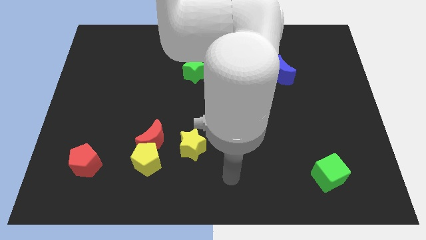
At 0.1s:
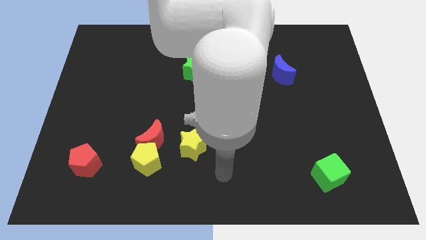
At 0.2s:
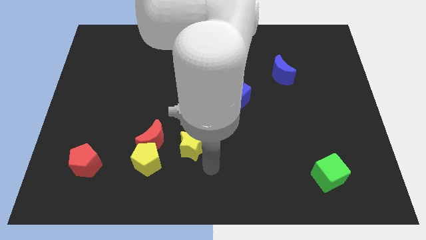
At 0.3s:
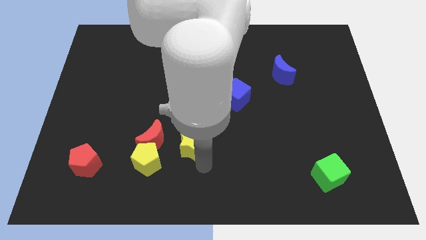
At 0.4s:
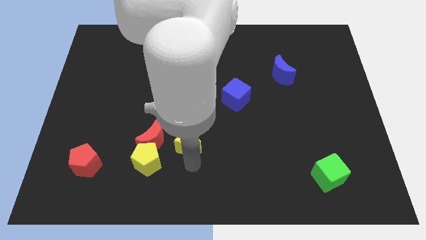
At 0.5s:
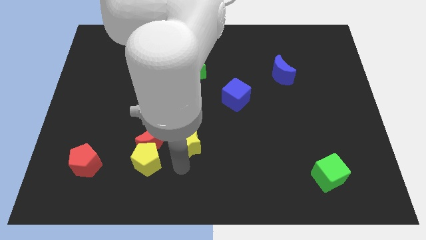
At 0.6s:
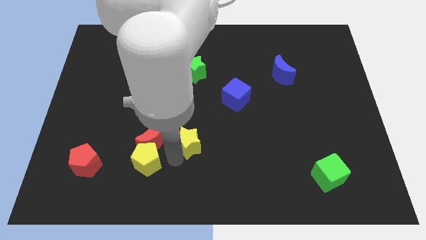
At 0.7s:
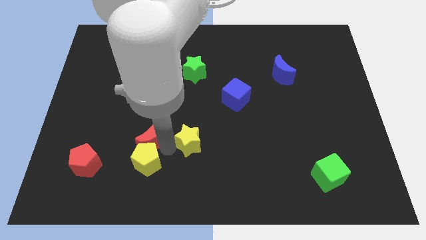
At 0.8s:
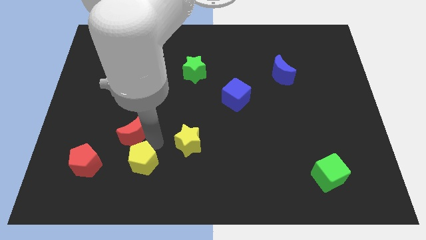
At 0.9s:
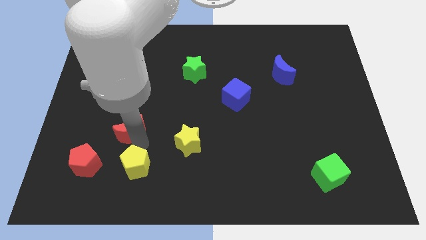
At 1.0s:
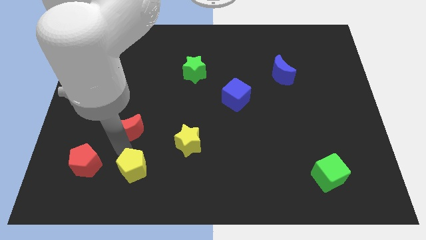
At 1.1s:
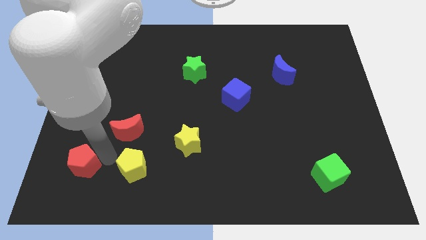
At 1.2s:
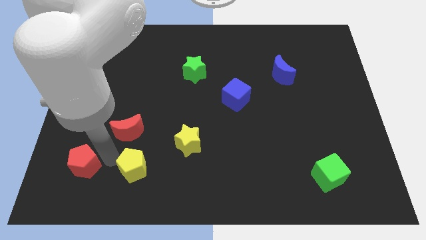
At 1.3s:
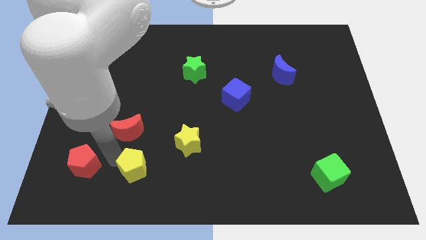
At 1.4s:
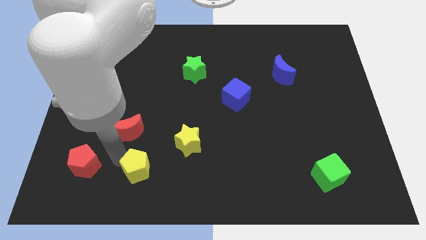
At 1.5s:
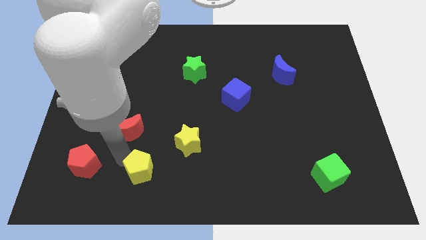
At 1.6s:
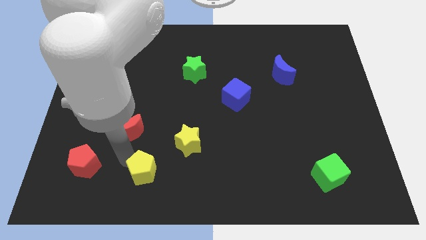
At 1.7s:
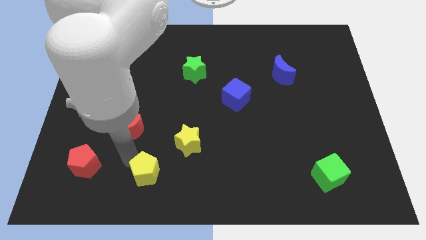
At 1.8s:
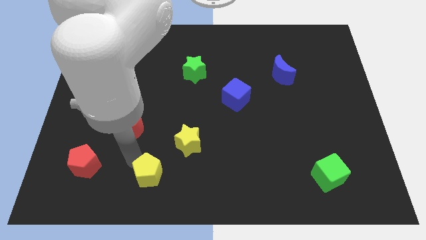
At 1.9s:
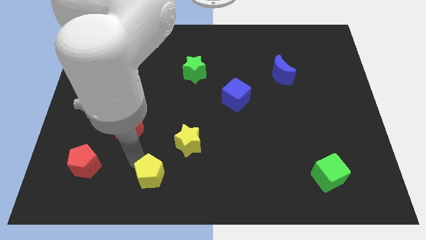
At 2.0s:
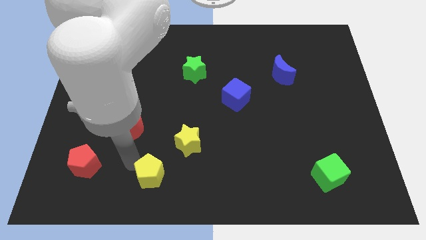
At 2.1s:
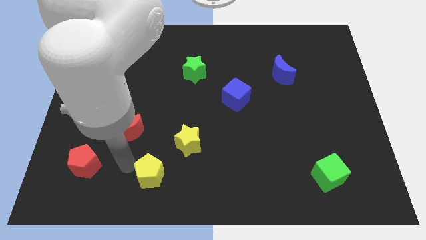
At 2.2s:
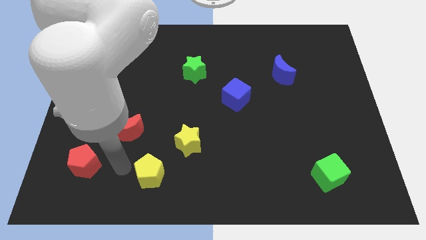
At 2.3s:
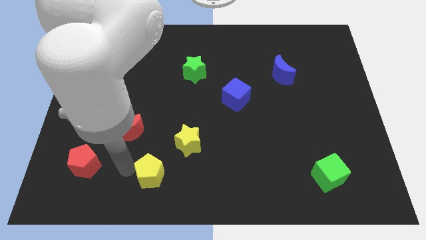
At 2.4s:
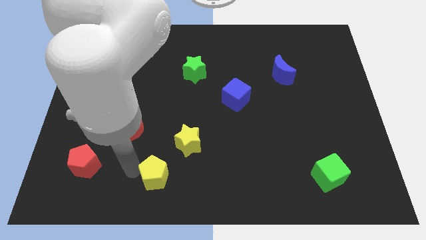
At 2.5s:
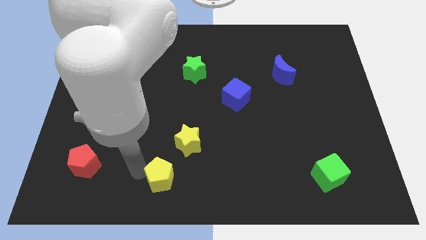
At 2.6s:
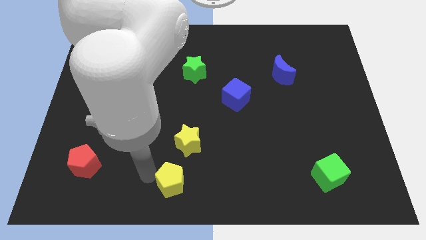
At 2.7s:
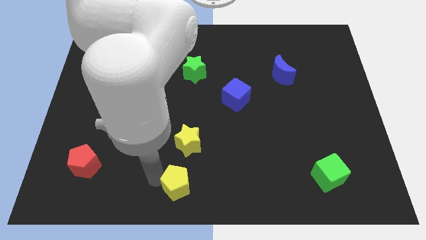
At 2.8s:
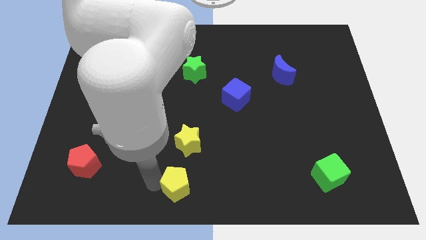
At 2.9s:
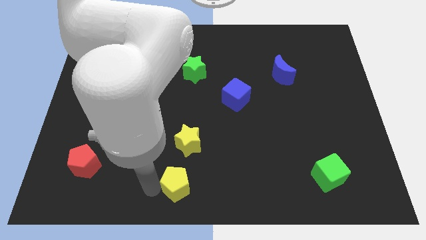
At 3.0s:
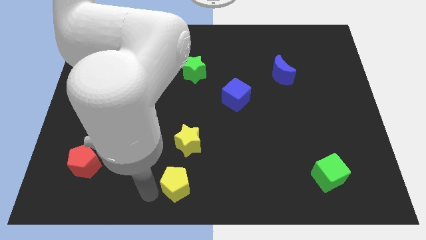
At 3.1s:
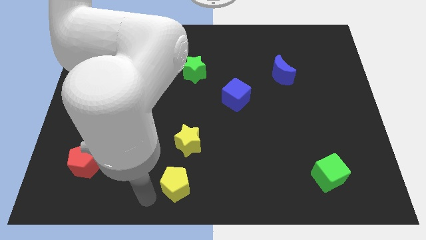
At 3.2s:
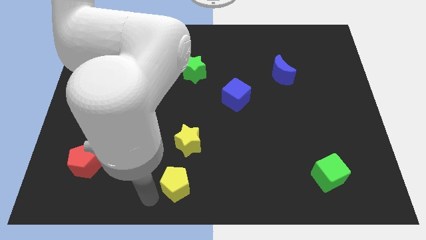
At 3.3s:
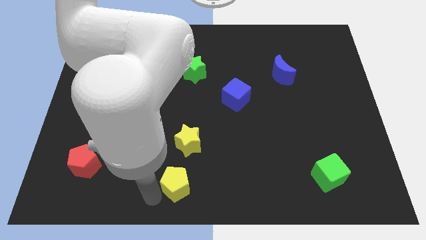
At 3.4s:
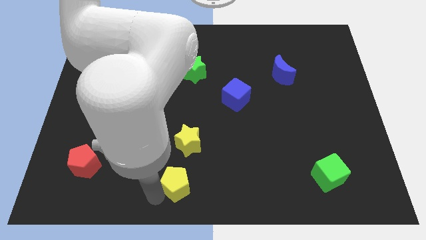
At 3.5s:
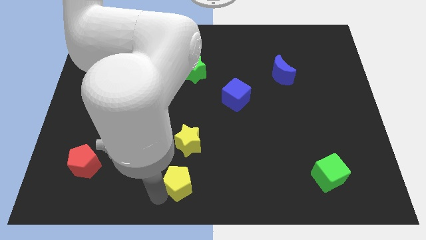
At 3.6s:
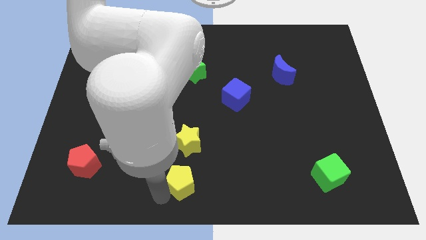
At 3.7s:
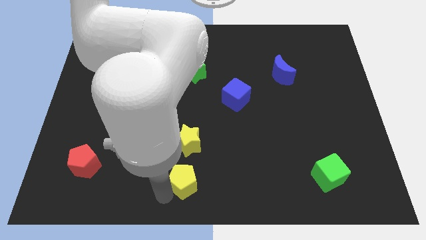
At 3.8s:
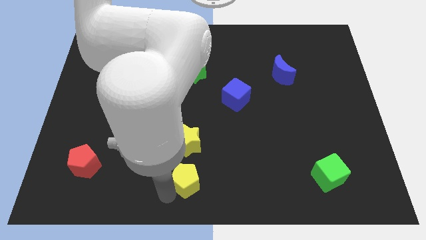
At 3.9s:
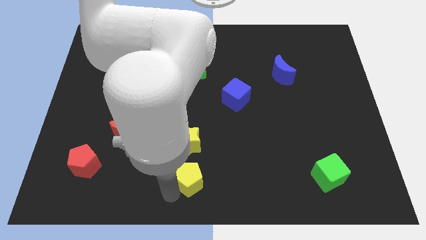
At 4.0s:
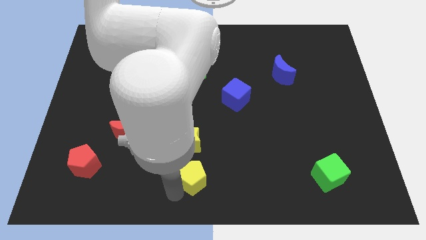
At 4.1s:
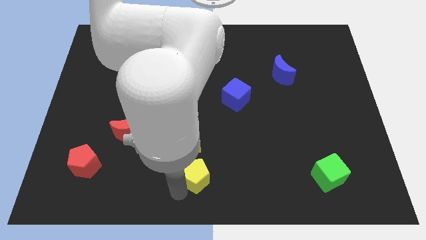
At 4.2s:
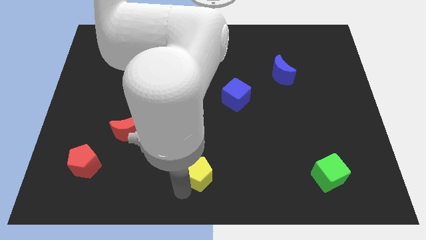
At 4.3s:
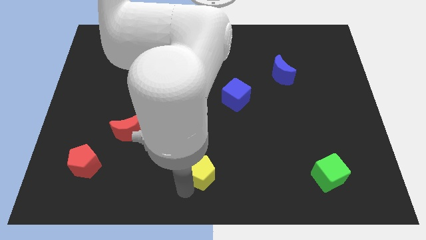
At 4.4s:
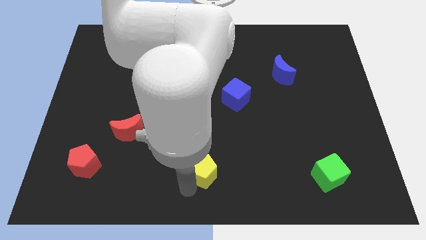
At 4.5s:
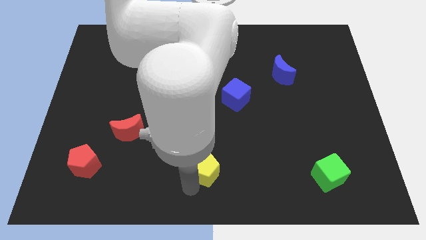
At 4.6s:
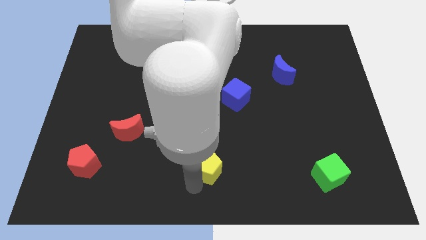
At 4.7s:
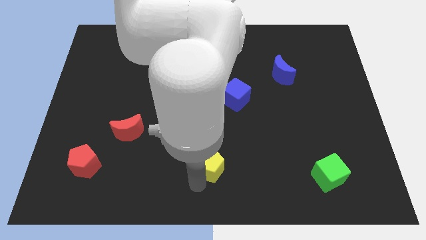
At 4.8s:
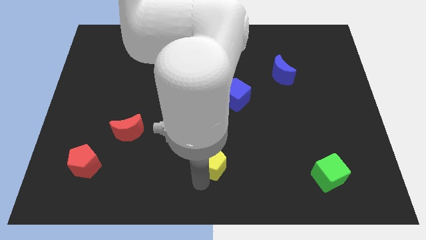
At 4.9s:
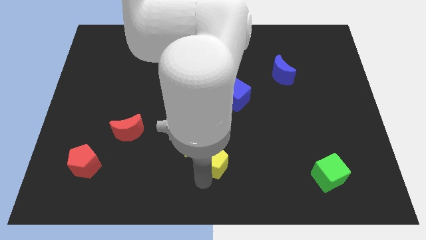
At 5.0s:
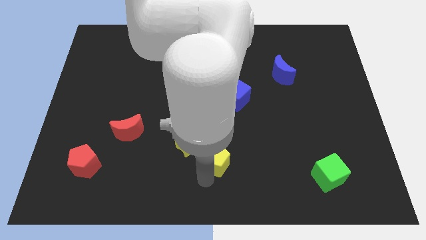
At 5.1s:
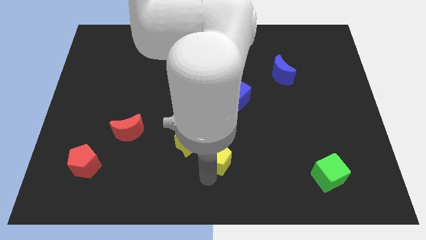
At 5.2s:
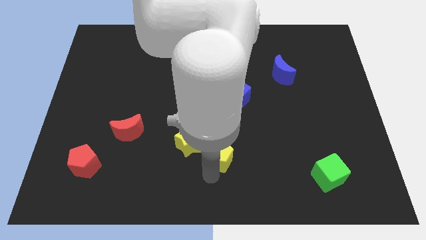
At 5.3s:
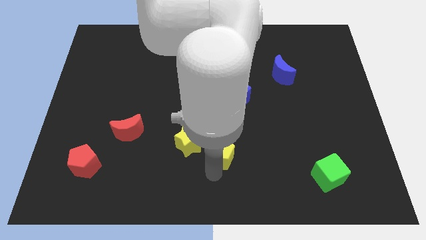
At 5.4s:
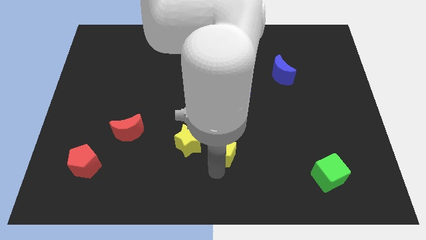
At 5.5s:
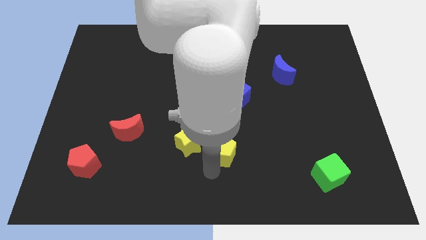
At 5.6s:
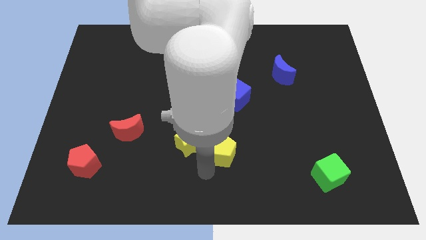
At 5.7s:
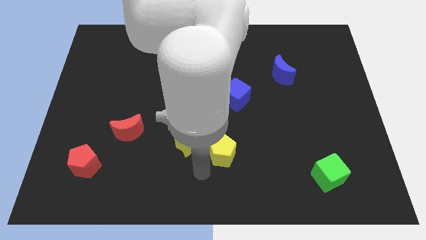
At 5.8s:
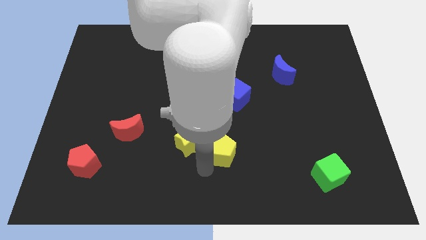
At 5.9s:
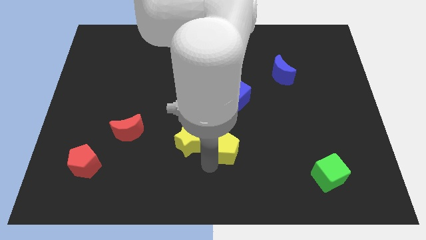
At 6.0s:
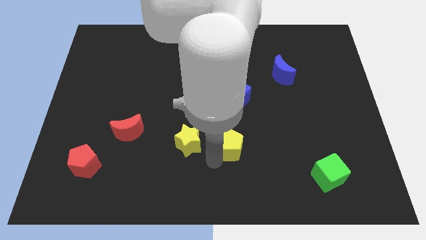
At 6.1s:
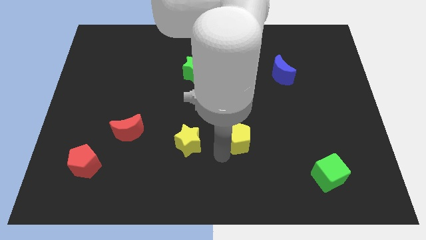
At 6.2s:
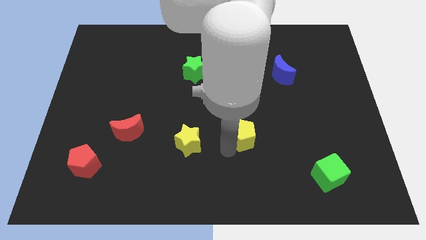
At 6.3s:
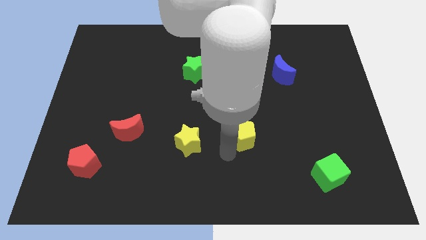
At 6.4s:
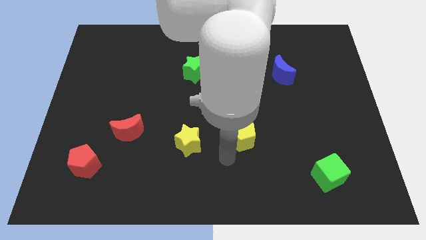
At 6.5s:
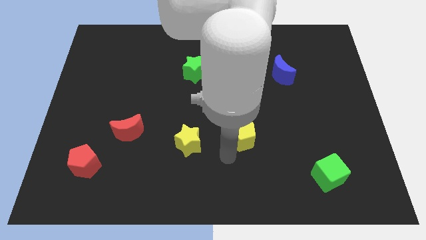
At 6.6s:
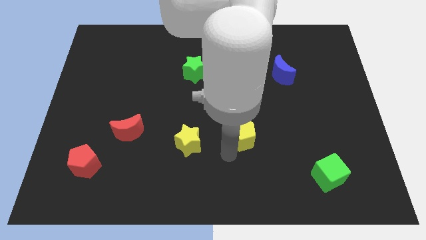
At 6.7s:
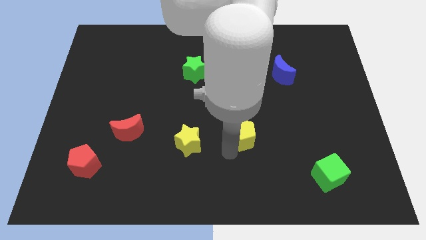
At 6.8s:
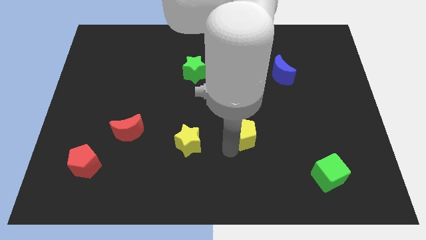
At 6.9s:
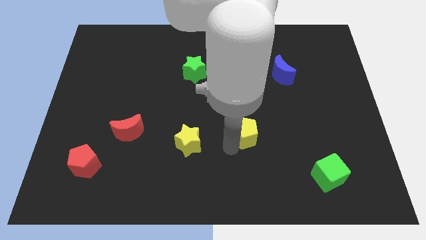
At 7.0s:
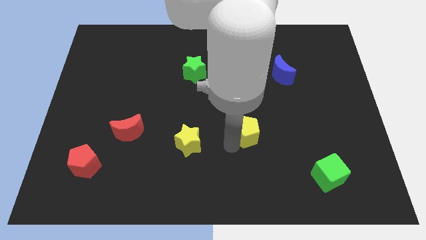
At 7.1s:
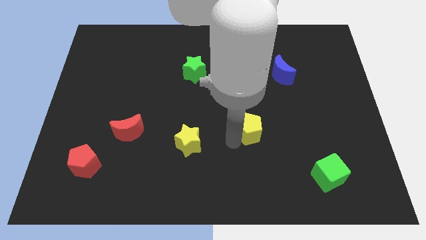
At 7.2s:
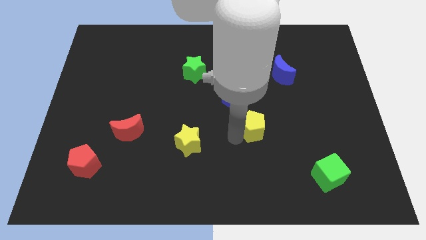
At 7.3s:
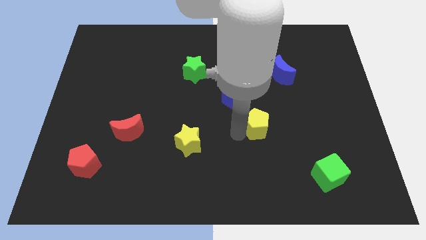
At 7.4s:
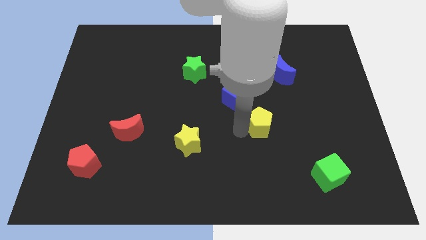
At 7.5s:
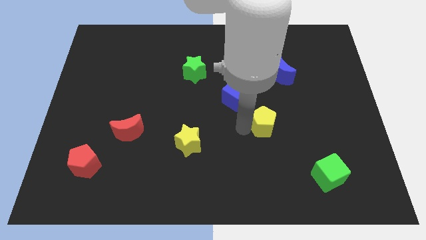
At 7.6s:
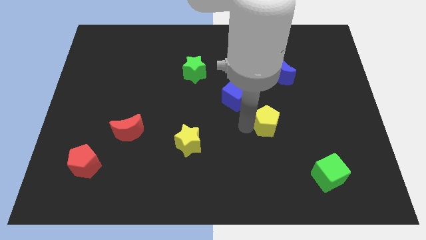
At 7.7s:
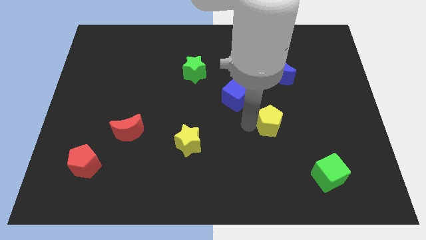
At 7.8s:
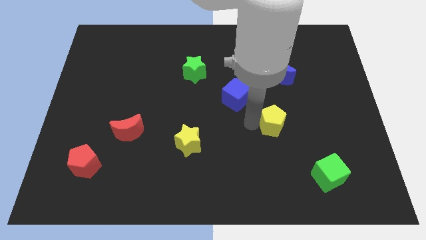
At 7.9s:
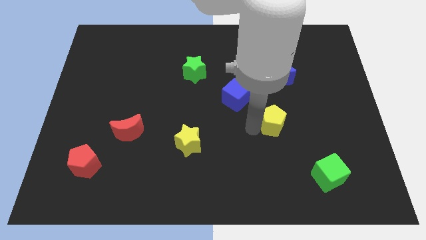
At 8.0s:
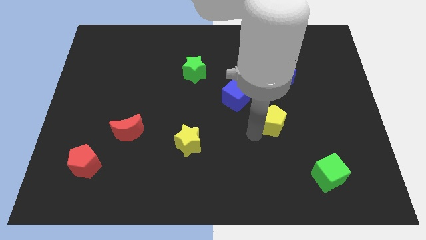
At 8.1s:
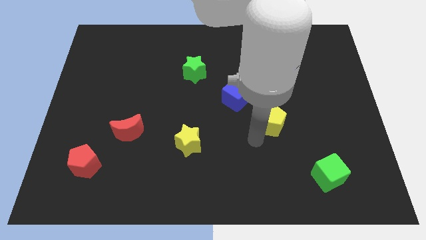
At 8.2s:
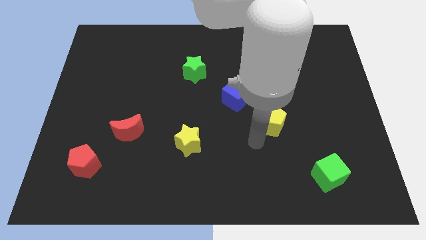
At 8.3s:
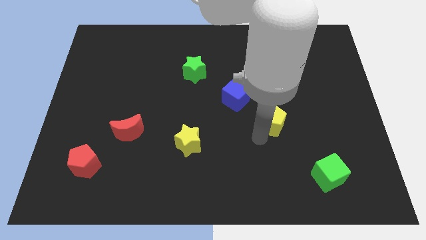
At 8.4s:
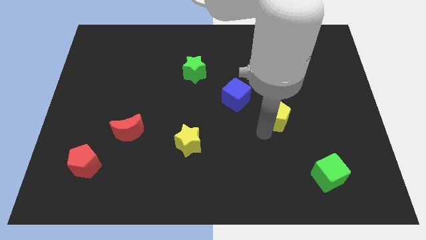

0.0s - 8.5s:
push the yellow pentagon below the blue moon

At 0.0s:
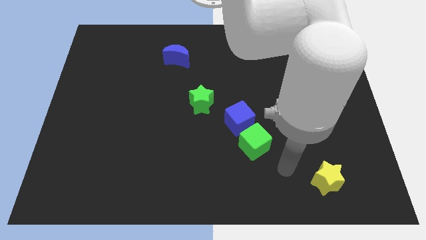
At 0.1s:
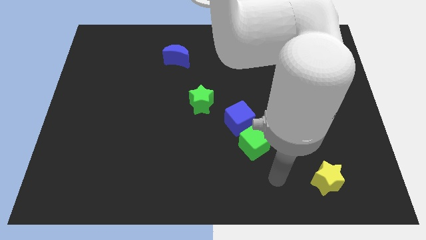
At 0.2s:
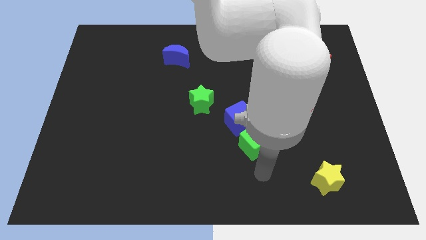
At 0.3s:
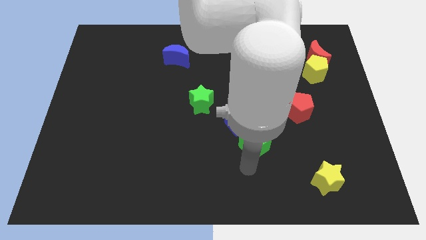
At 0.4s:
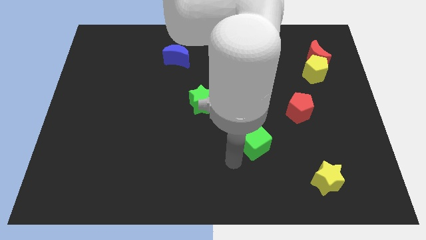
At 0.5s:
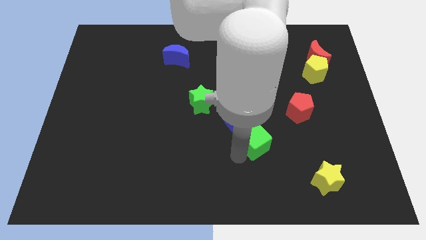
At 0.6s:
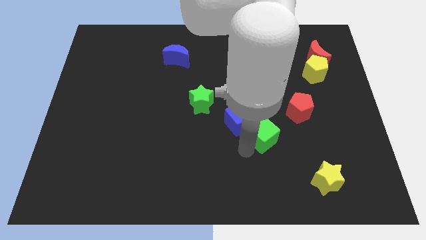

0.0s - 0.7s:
slide the green cube right of the blue cube
